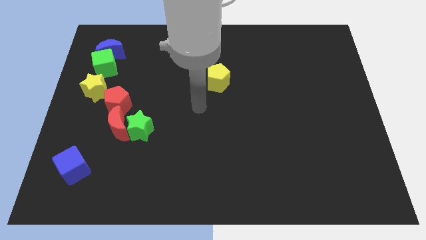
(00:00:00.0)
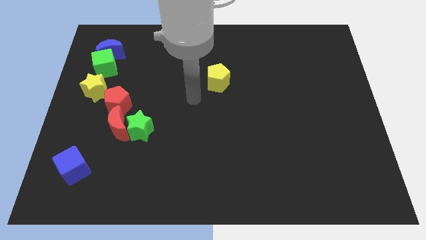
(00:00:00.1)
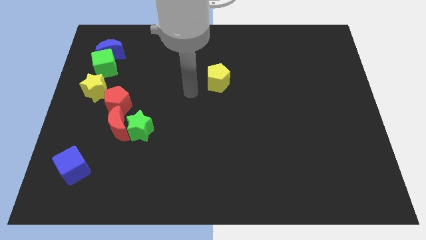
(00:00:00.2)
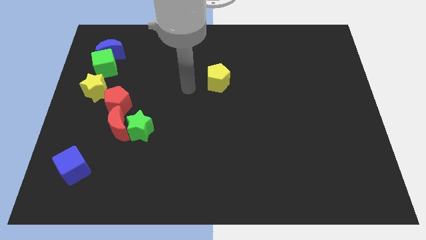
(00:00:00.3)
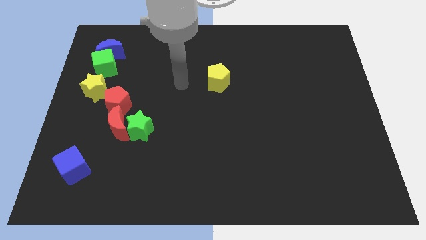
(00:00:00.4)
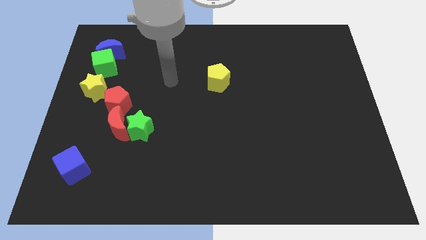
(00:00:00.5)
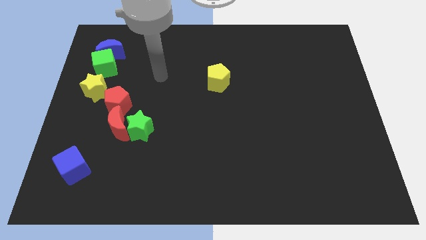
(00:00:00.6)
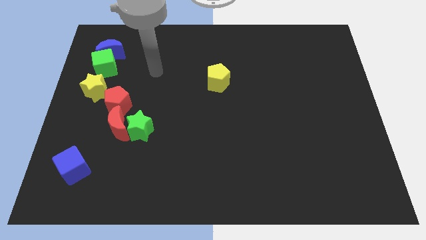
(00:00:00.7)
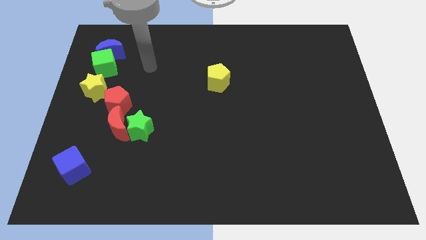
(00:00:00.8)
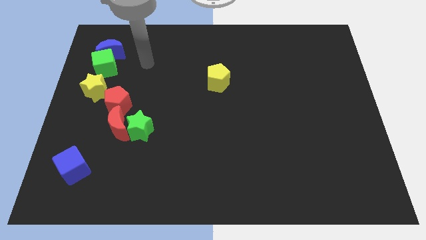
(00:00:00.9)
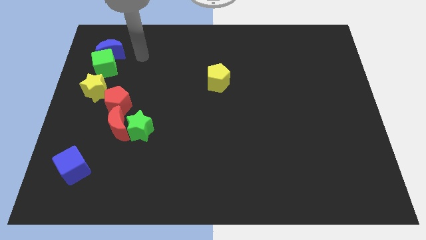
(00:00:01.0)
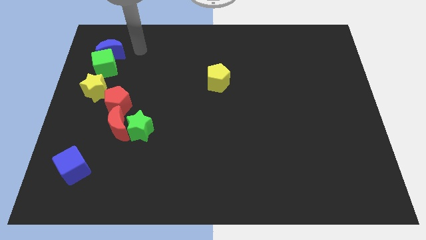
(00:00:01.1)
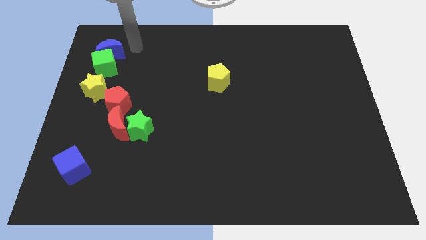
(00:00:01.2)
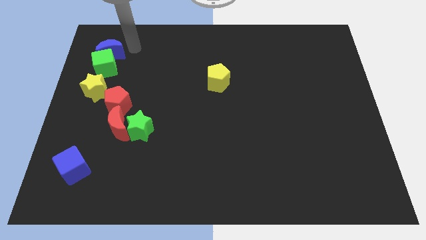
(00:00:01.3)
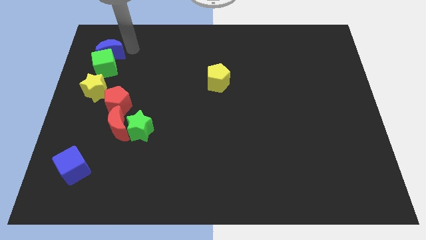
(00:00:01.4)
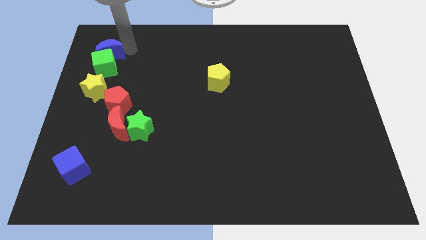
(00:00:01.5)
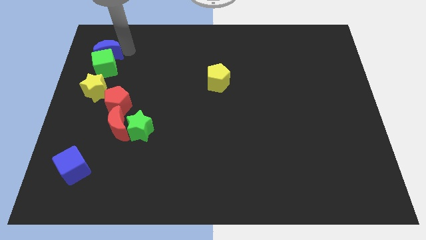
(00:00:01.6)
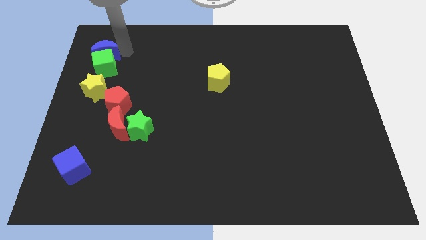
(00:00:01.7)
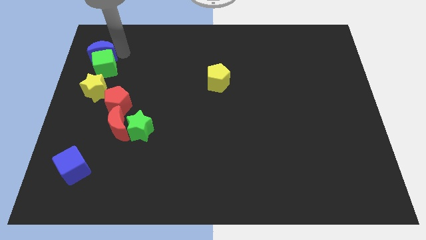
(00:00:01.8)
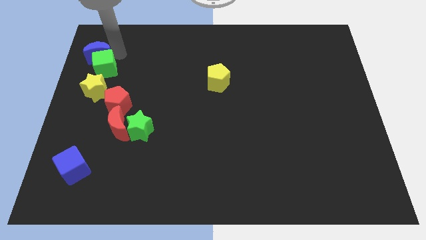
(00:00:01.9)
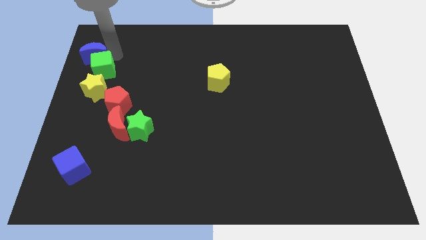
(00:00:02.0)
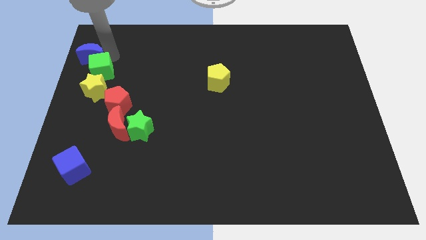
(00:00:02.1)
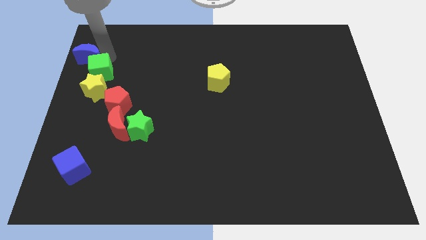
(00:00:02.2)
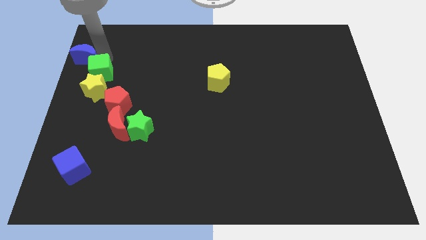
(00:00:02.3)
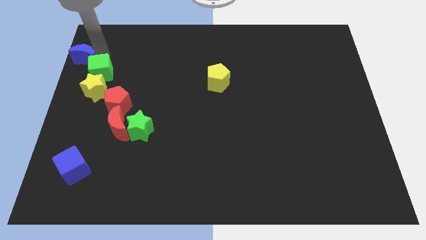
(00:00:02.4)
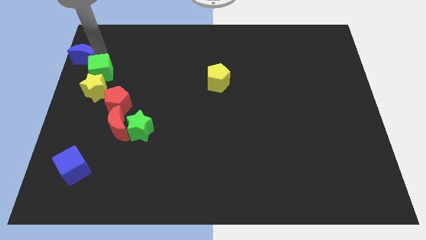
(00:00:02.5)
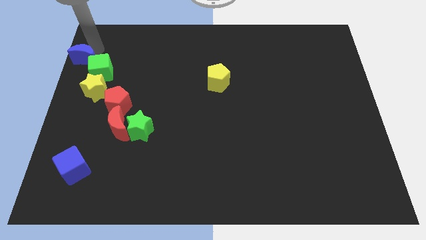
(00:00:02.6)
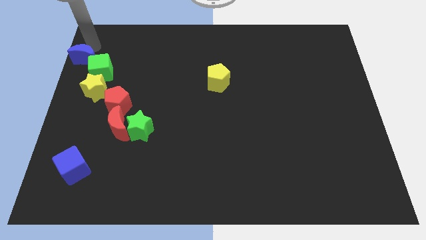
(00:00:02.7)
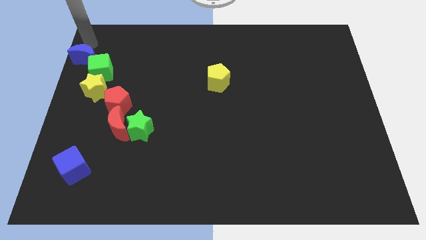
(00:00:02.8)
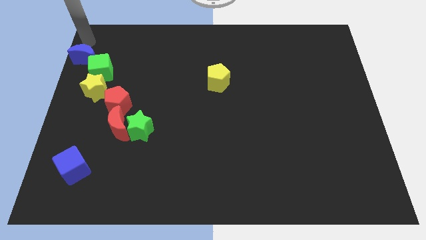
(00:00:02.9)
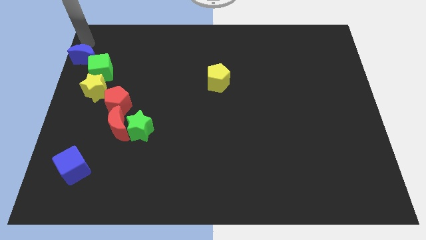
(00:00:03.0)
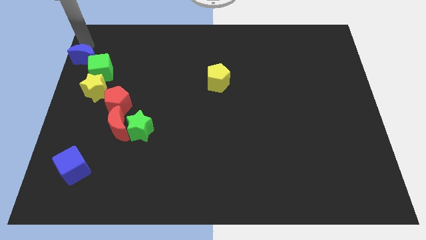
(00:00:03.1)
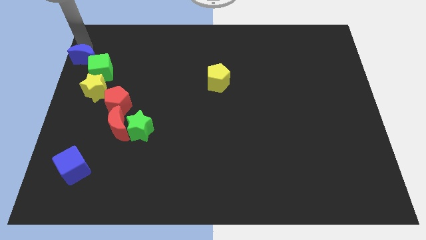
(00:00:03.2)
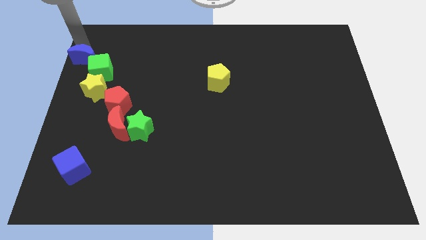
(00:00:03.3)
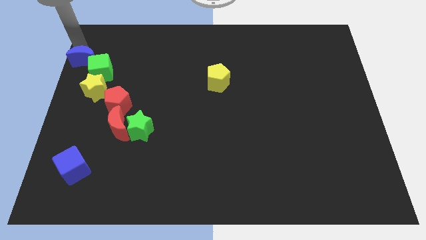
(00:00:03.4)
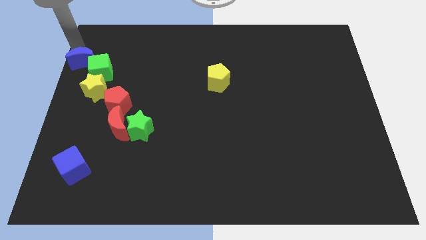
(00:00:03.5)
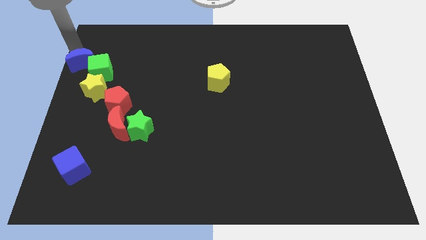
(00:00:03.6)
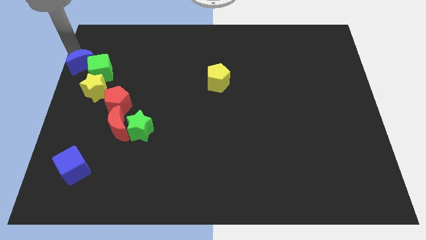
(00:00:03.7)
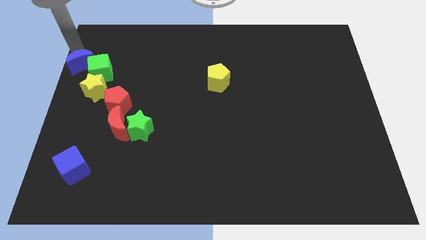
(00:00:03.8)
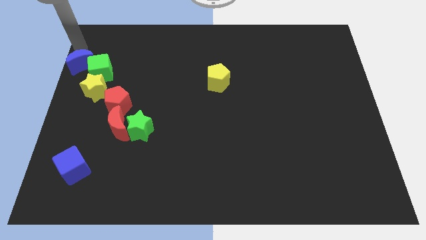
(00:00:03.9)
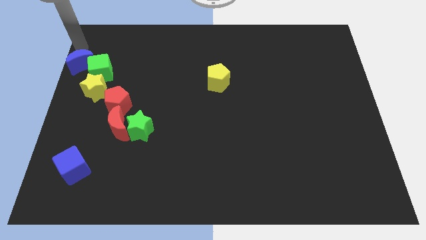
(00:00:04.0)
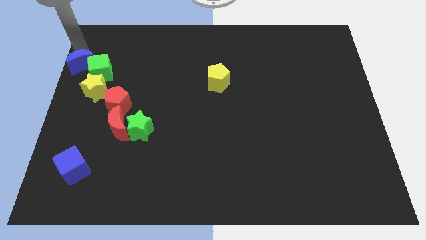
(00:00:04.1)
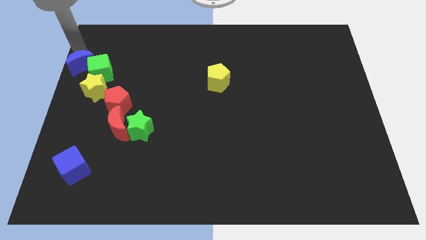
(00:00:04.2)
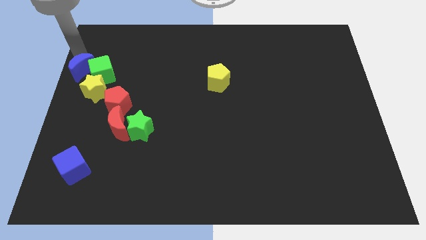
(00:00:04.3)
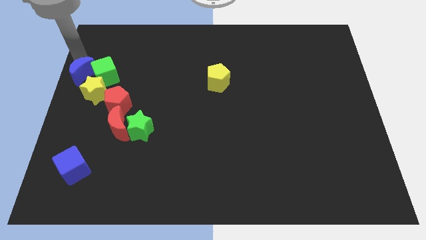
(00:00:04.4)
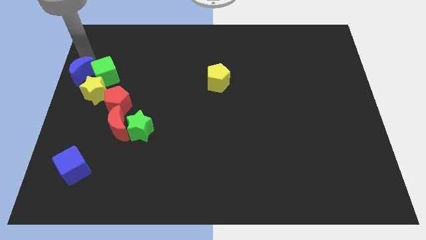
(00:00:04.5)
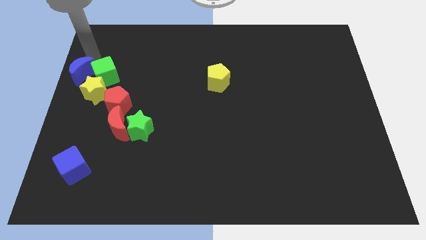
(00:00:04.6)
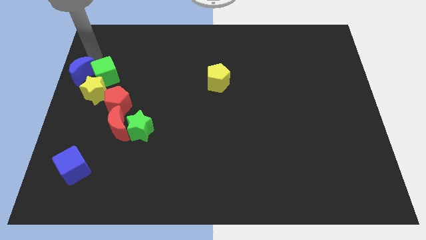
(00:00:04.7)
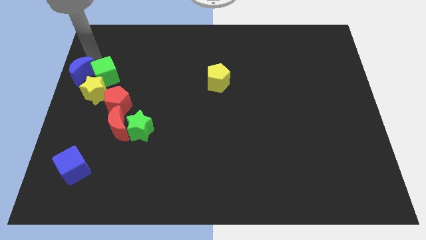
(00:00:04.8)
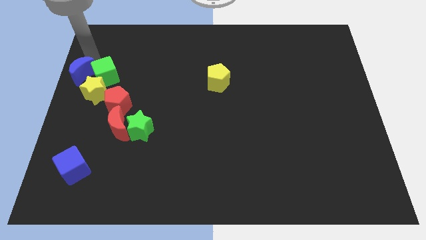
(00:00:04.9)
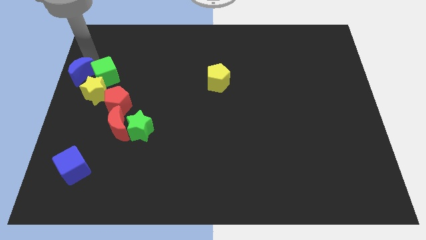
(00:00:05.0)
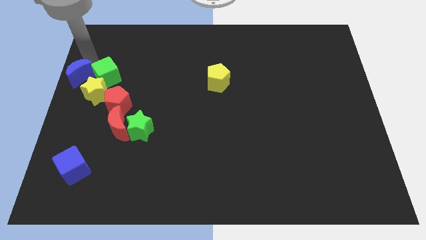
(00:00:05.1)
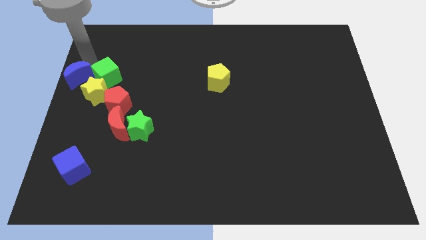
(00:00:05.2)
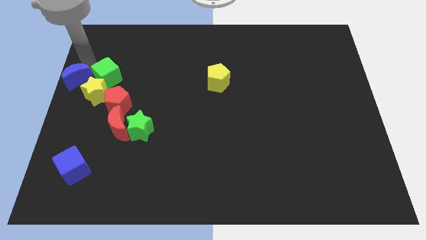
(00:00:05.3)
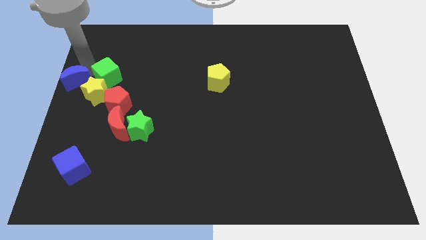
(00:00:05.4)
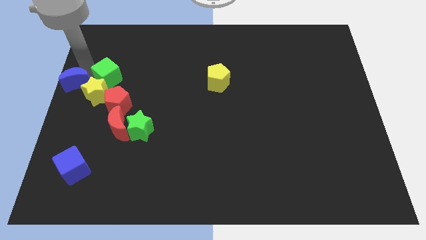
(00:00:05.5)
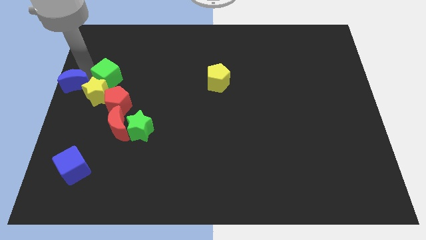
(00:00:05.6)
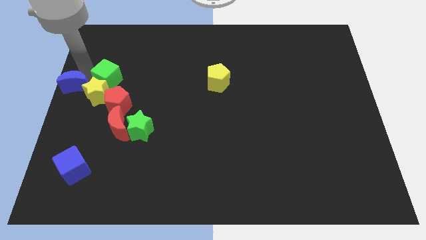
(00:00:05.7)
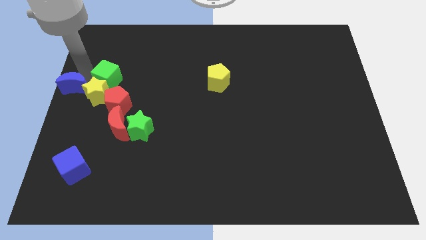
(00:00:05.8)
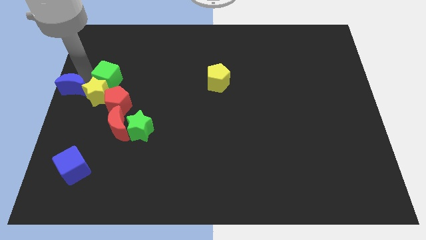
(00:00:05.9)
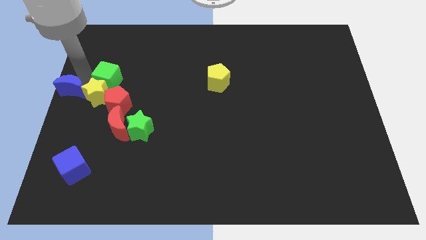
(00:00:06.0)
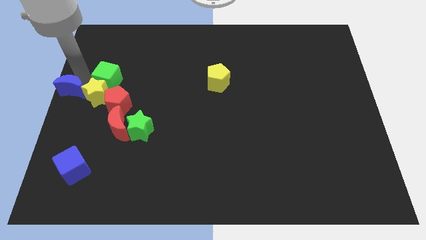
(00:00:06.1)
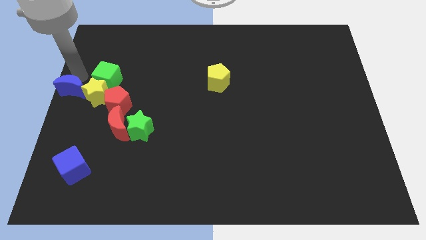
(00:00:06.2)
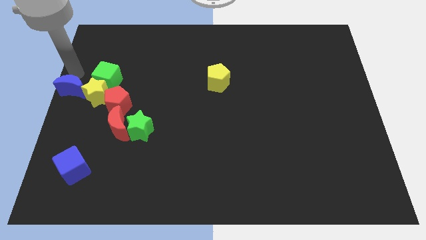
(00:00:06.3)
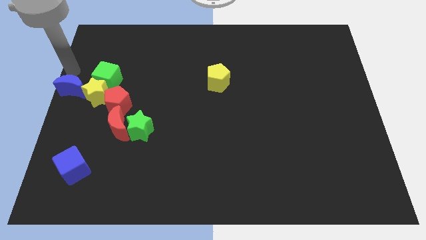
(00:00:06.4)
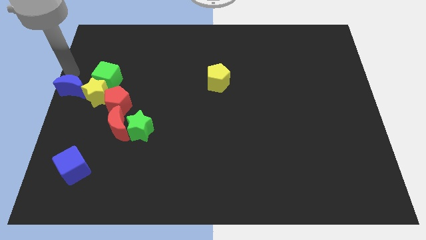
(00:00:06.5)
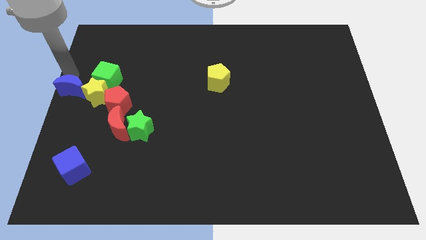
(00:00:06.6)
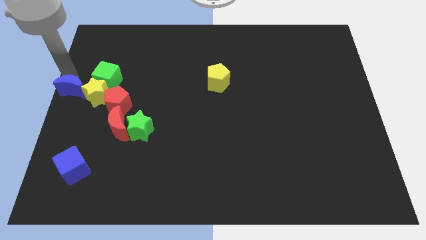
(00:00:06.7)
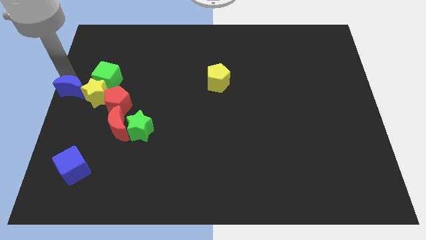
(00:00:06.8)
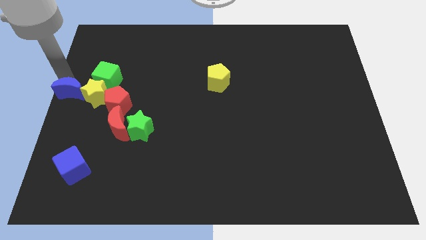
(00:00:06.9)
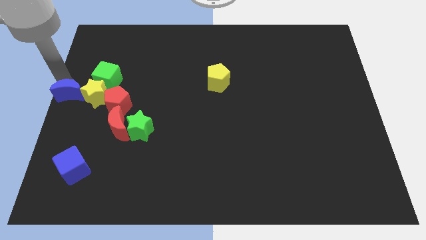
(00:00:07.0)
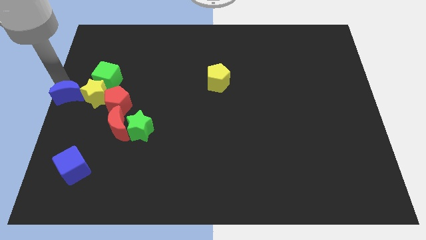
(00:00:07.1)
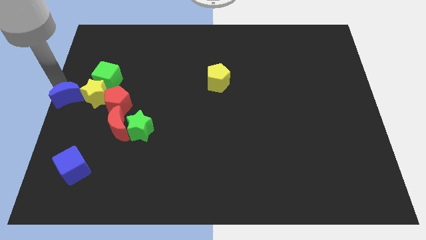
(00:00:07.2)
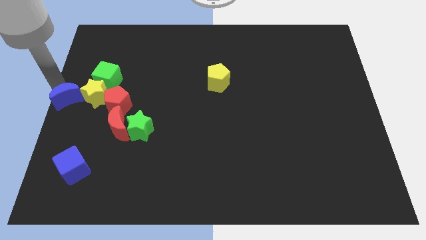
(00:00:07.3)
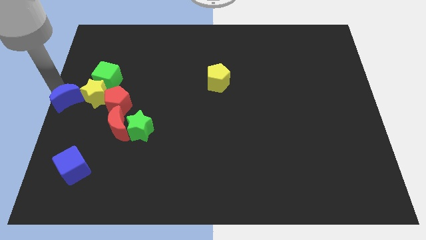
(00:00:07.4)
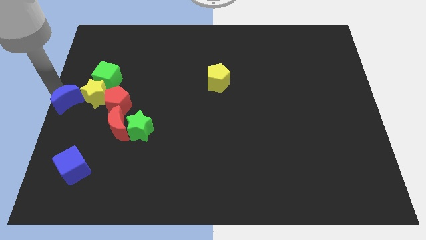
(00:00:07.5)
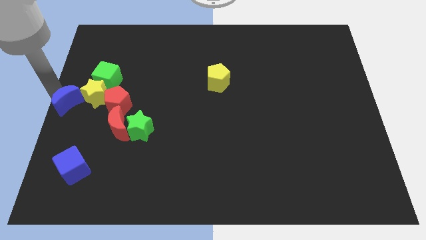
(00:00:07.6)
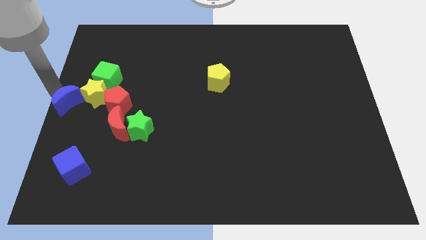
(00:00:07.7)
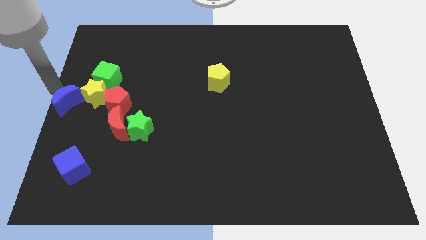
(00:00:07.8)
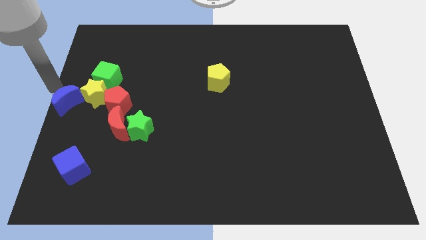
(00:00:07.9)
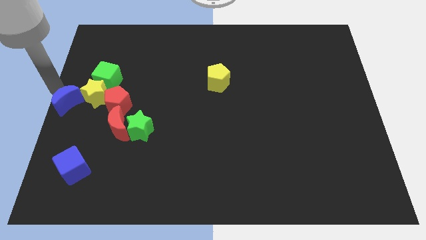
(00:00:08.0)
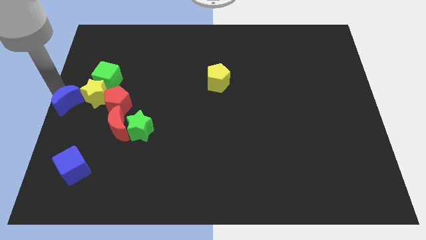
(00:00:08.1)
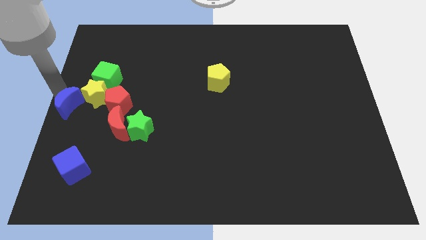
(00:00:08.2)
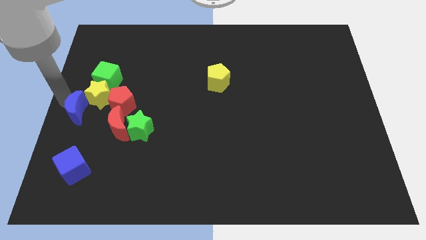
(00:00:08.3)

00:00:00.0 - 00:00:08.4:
push the blue moon above the blue cube
